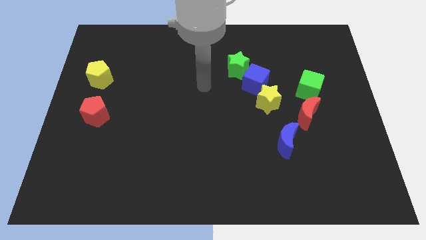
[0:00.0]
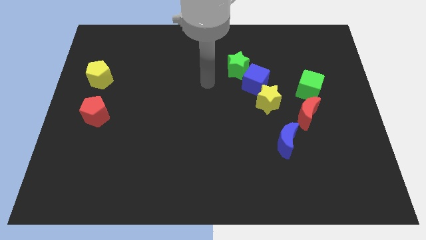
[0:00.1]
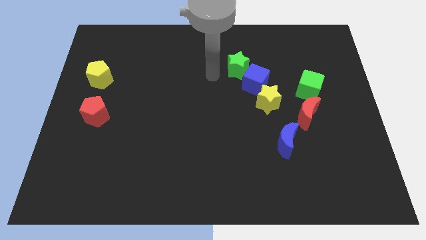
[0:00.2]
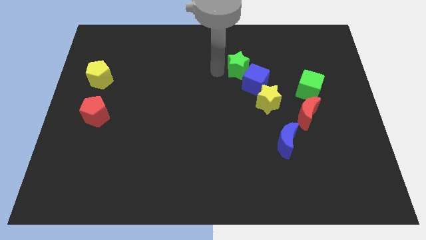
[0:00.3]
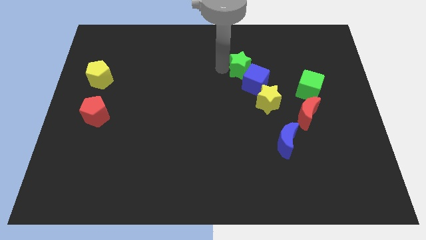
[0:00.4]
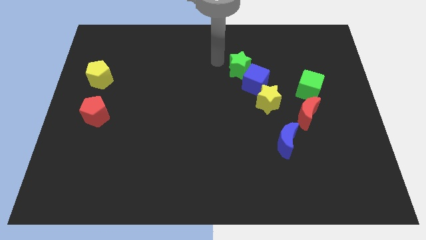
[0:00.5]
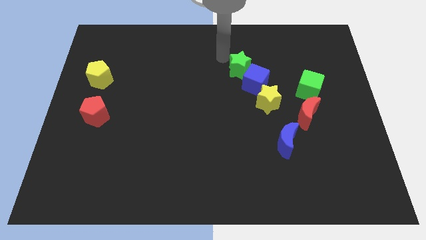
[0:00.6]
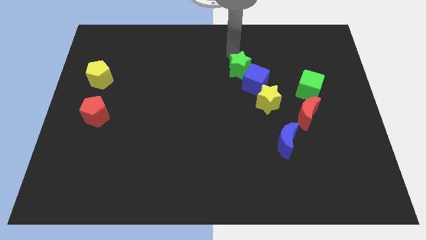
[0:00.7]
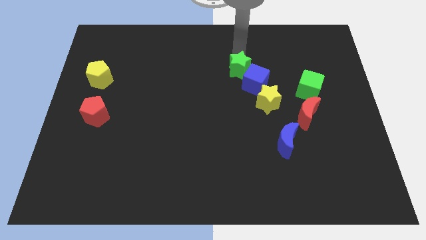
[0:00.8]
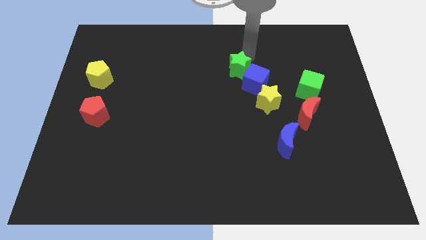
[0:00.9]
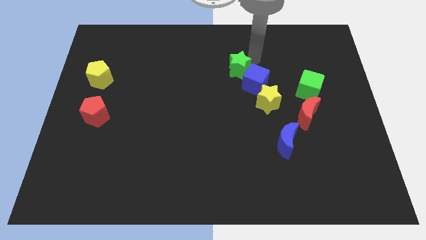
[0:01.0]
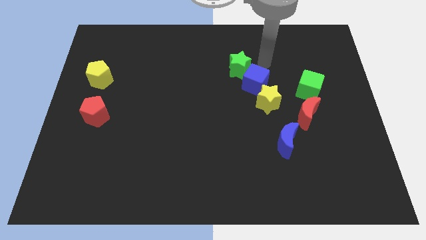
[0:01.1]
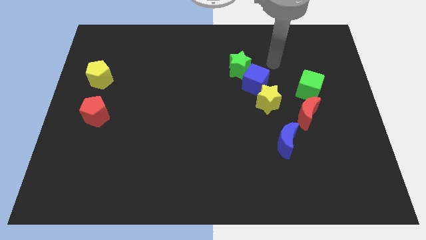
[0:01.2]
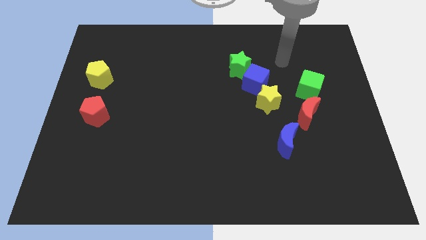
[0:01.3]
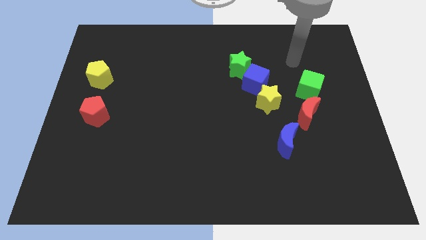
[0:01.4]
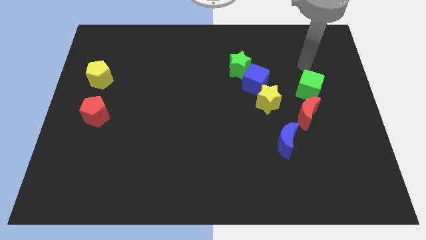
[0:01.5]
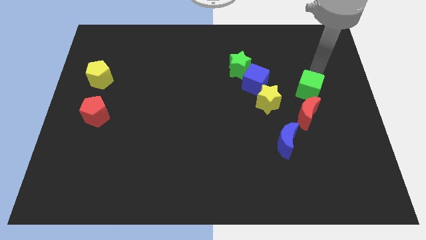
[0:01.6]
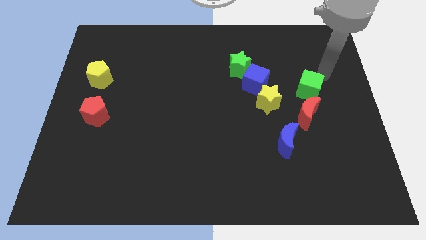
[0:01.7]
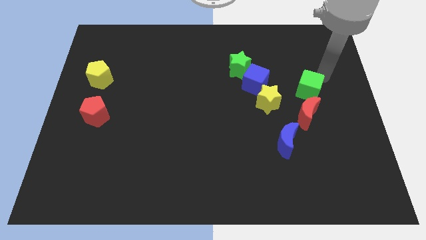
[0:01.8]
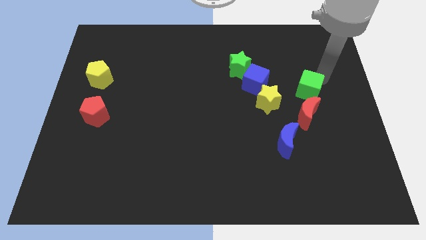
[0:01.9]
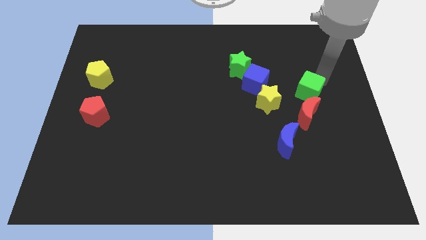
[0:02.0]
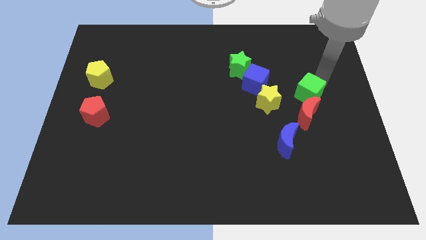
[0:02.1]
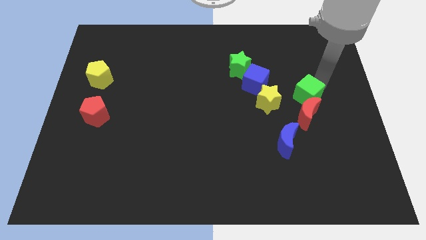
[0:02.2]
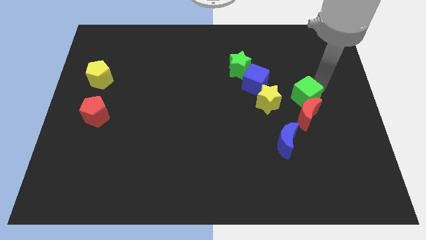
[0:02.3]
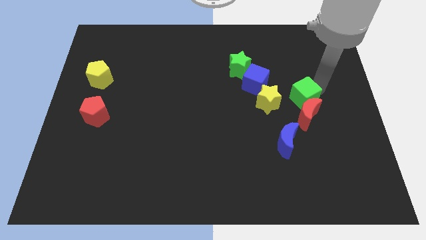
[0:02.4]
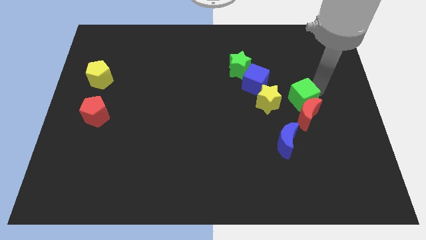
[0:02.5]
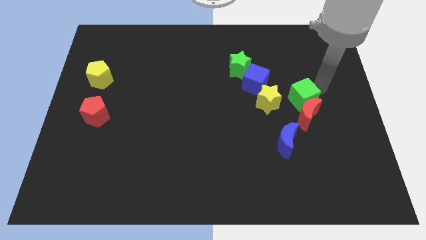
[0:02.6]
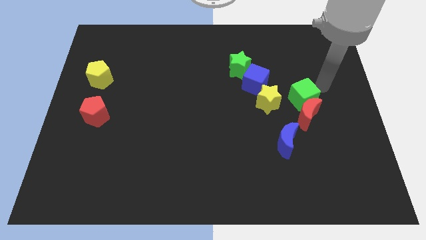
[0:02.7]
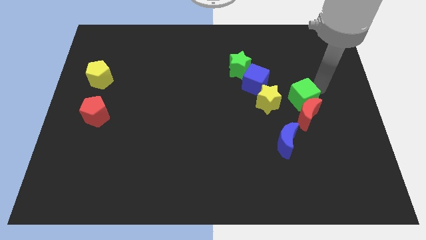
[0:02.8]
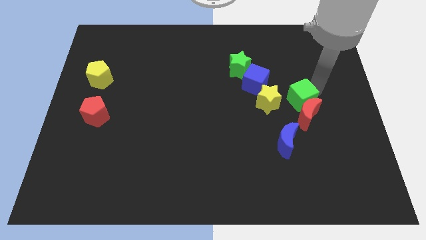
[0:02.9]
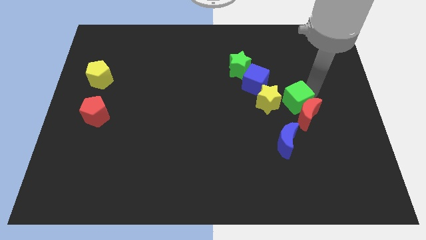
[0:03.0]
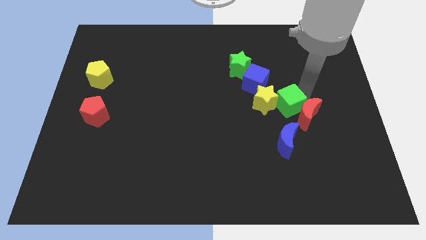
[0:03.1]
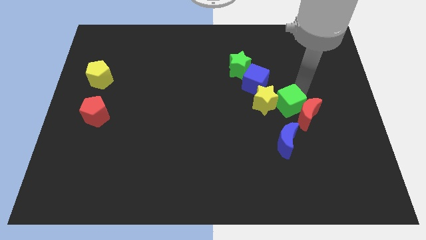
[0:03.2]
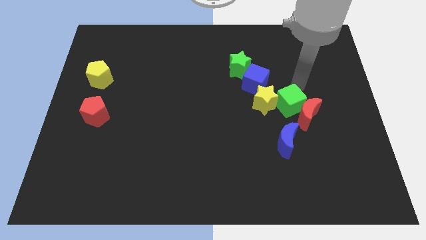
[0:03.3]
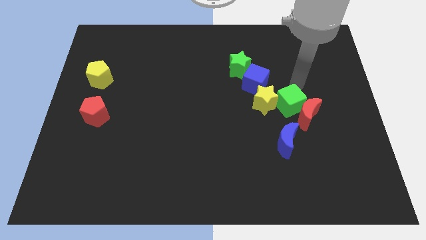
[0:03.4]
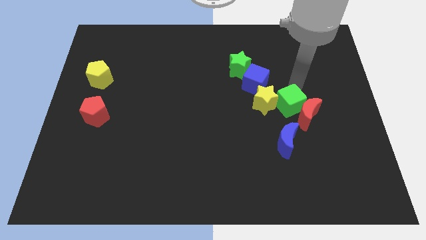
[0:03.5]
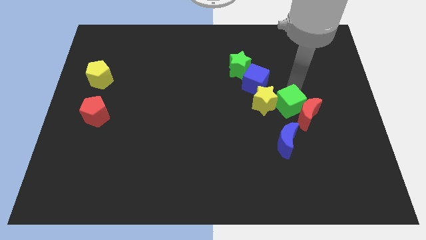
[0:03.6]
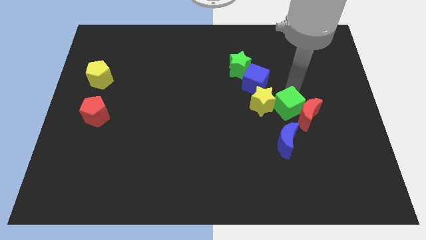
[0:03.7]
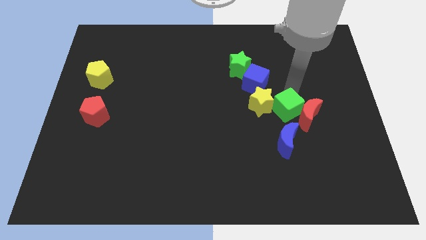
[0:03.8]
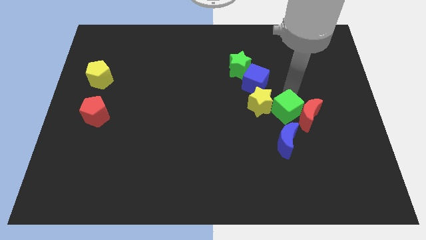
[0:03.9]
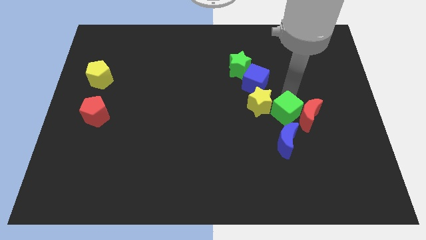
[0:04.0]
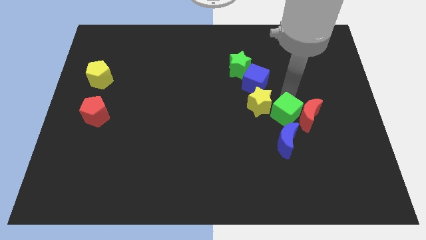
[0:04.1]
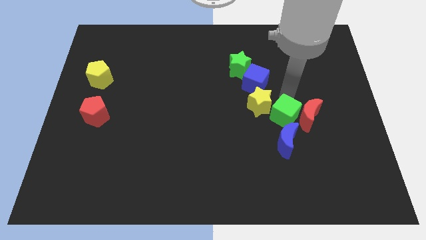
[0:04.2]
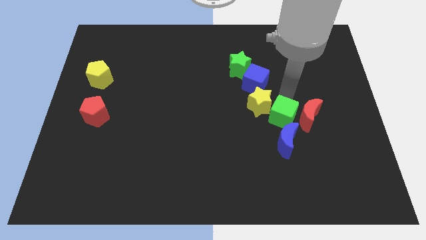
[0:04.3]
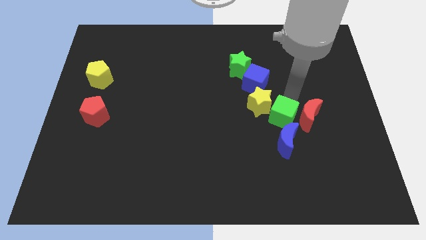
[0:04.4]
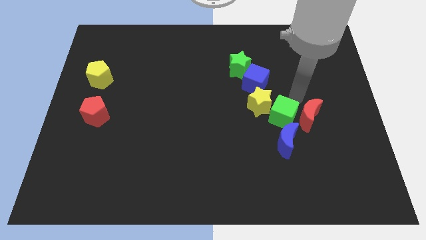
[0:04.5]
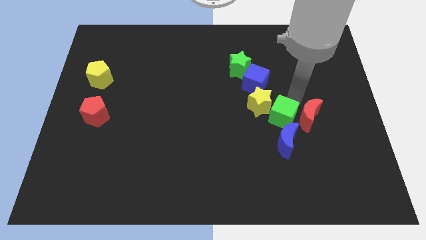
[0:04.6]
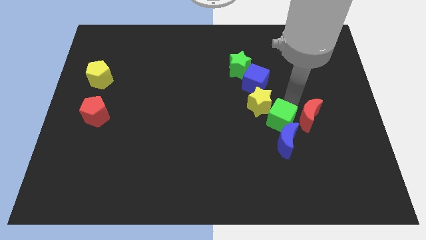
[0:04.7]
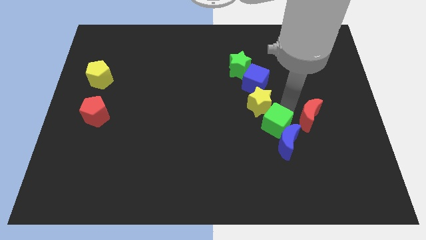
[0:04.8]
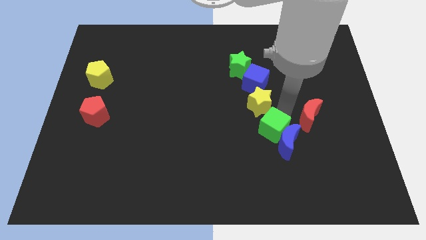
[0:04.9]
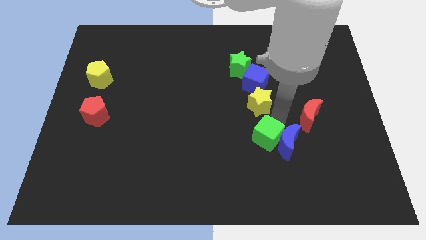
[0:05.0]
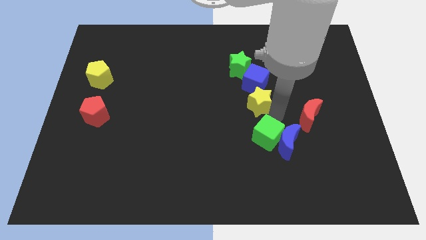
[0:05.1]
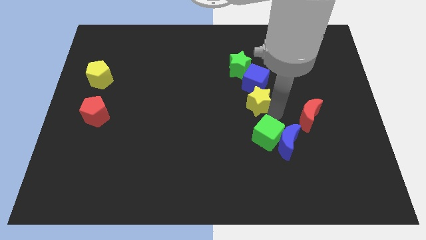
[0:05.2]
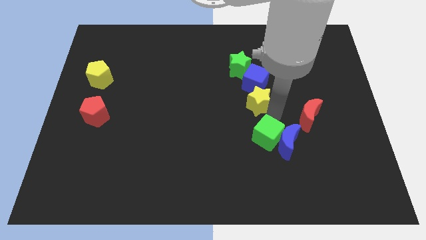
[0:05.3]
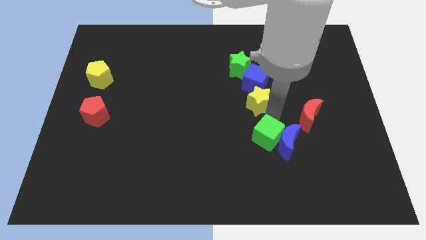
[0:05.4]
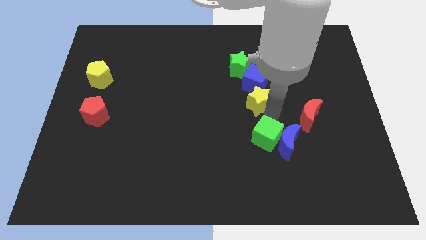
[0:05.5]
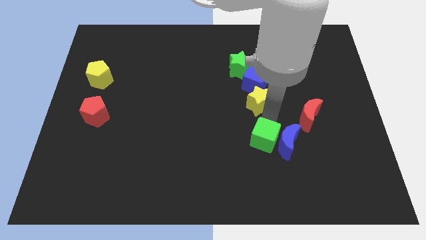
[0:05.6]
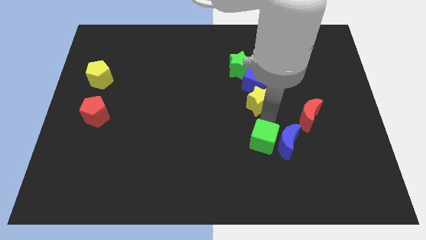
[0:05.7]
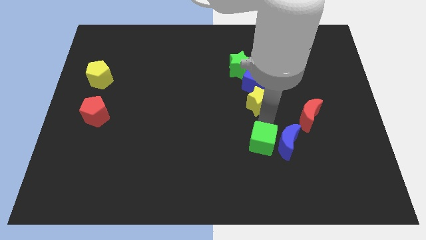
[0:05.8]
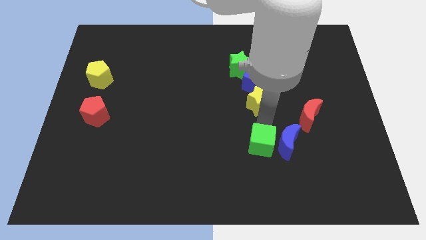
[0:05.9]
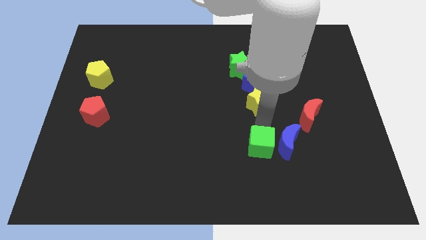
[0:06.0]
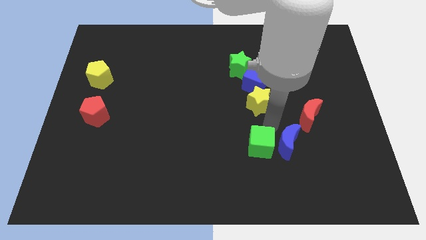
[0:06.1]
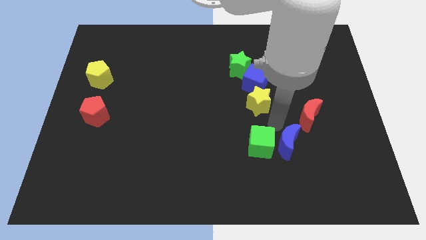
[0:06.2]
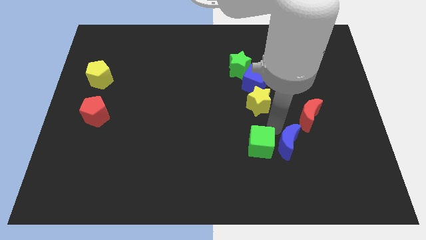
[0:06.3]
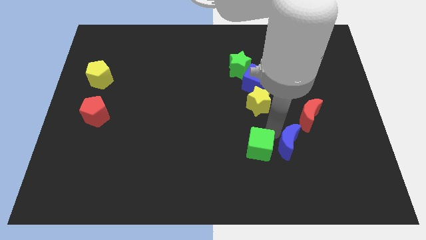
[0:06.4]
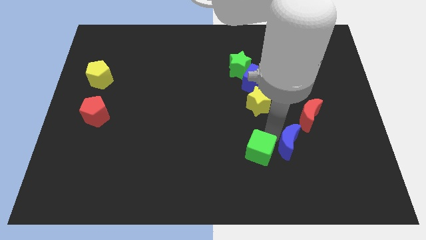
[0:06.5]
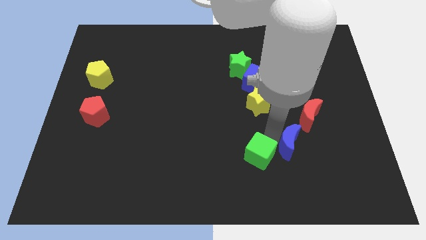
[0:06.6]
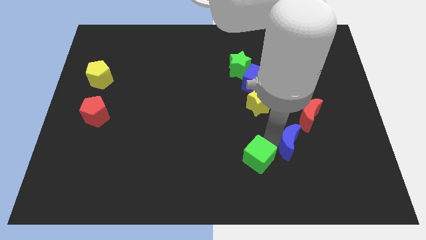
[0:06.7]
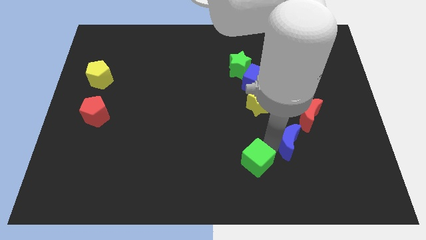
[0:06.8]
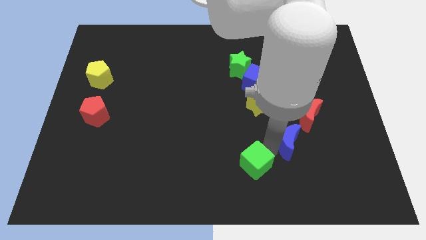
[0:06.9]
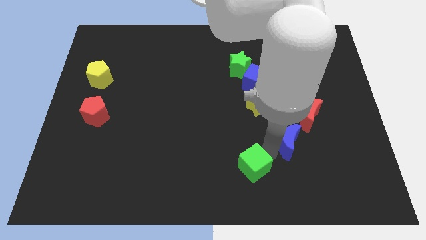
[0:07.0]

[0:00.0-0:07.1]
move the green cube to the bottom side
